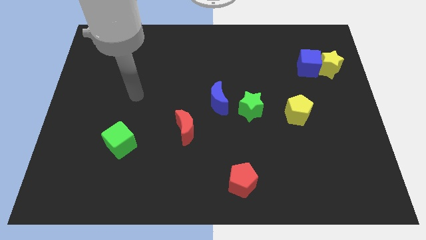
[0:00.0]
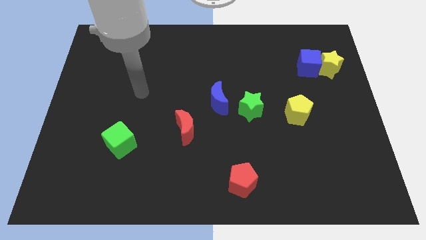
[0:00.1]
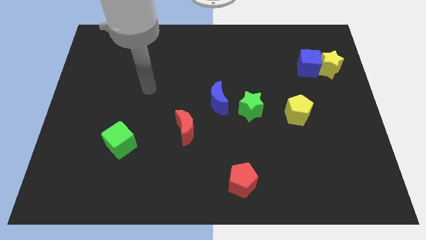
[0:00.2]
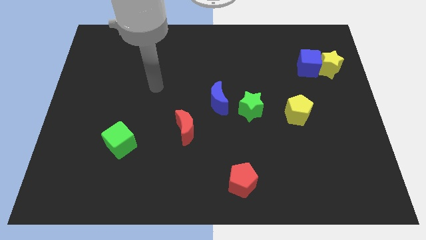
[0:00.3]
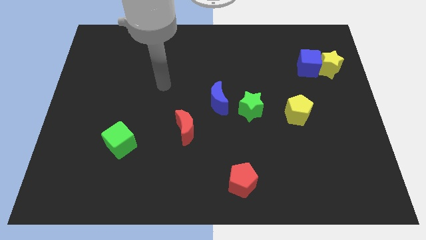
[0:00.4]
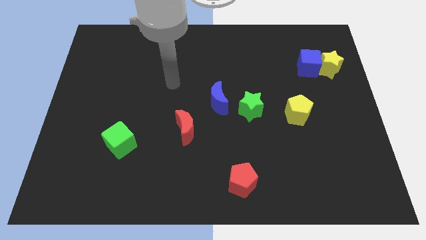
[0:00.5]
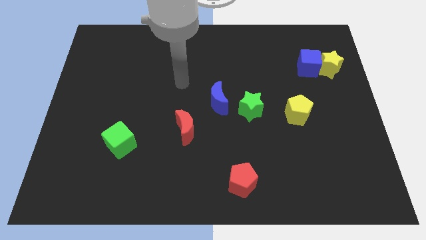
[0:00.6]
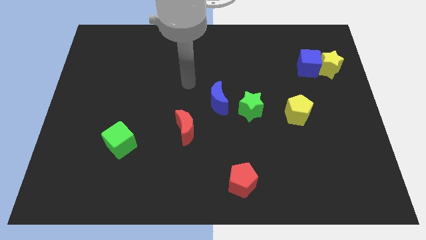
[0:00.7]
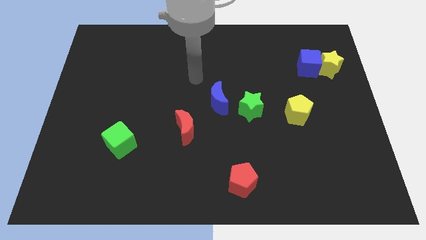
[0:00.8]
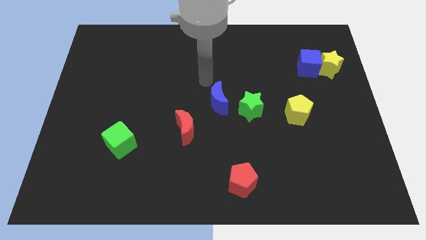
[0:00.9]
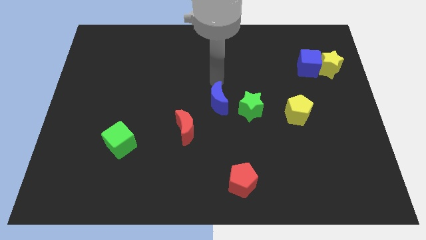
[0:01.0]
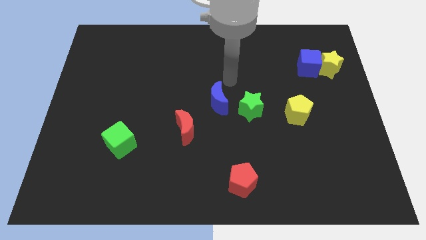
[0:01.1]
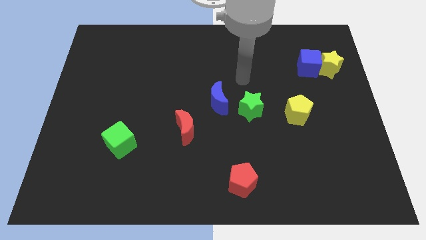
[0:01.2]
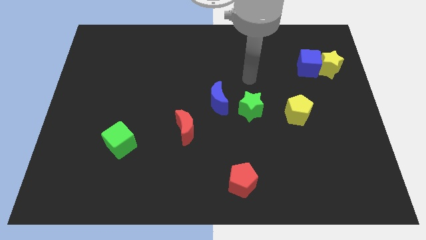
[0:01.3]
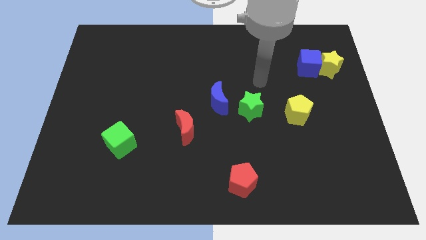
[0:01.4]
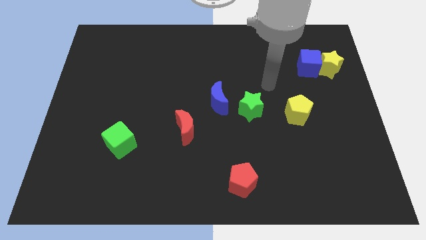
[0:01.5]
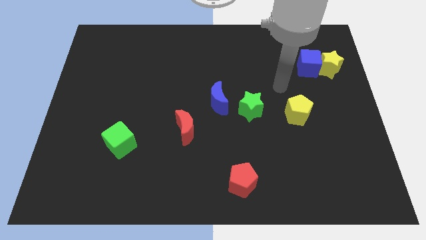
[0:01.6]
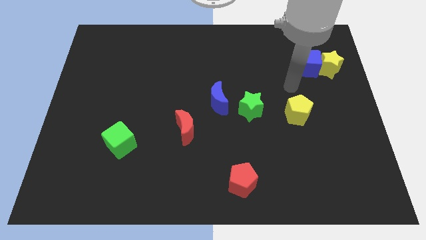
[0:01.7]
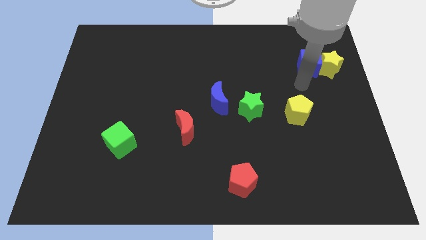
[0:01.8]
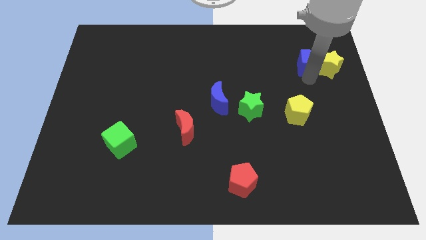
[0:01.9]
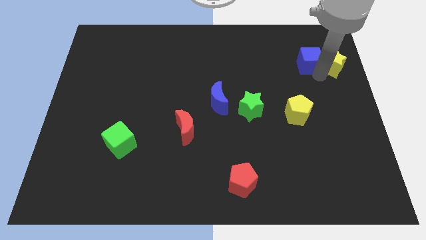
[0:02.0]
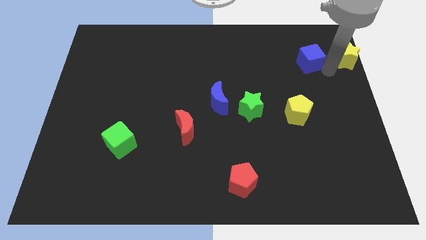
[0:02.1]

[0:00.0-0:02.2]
pull the blue cube apart from the yellow star

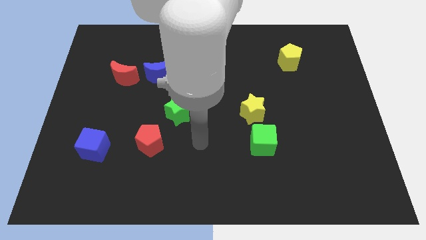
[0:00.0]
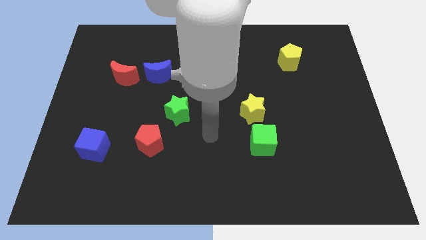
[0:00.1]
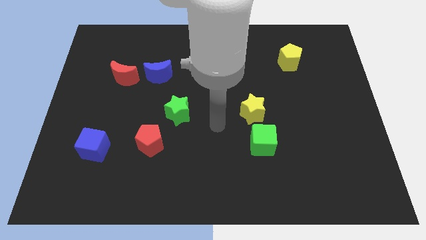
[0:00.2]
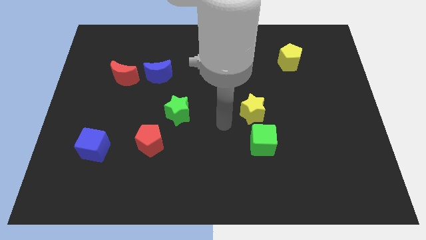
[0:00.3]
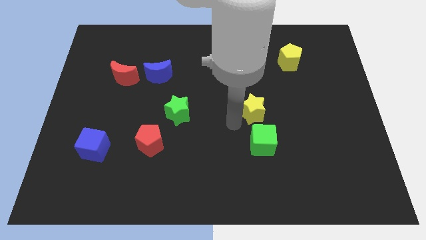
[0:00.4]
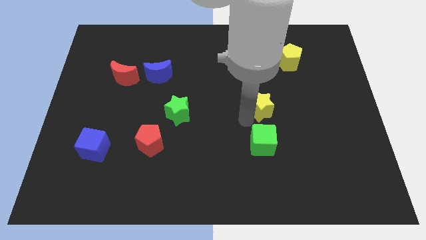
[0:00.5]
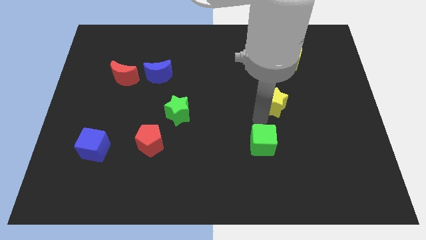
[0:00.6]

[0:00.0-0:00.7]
move the green cube away from the yellow star

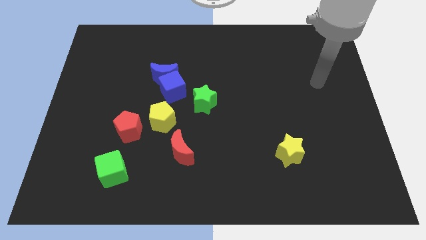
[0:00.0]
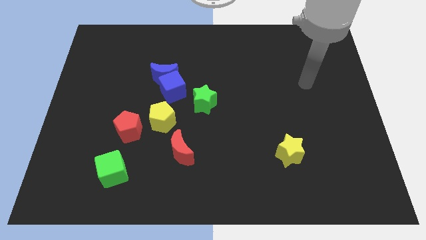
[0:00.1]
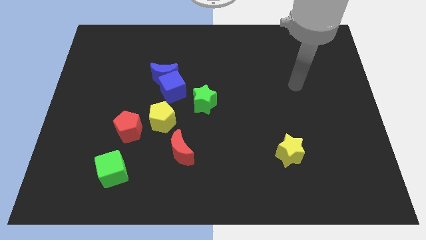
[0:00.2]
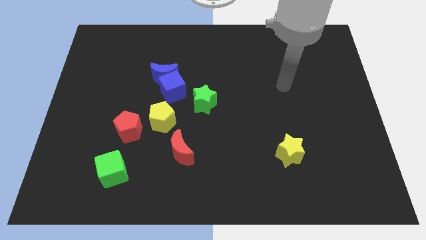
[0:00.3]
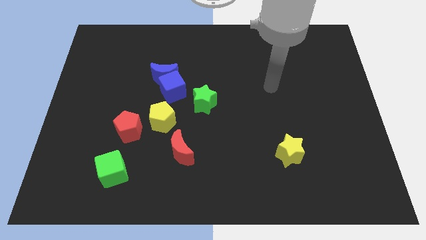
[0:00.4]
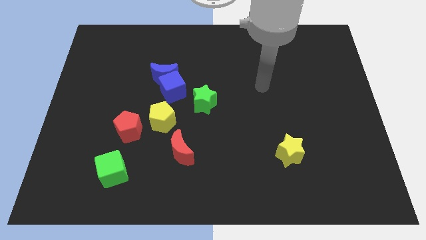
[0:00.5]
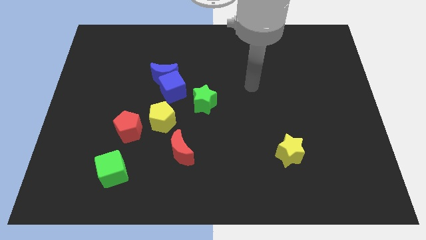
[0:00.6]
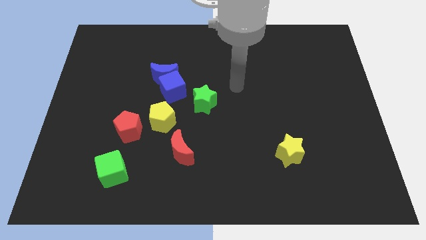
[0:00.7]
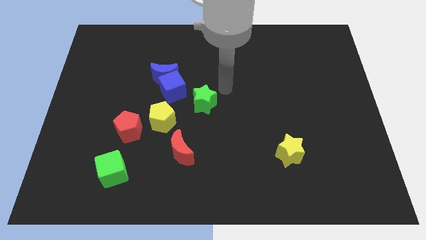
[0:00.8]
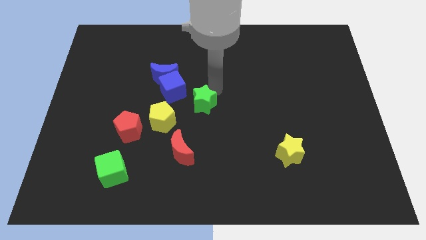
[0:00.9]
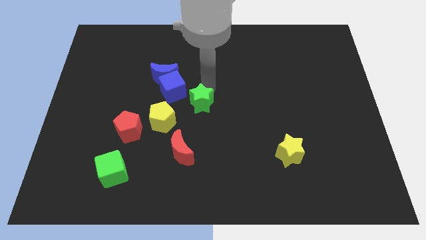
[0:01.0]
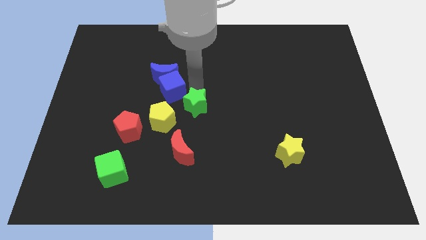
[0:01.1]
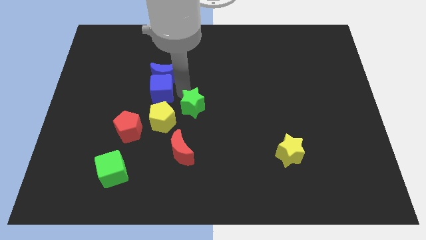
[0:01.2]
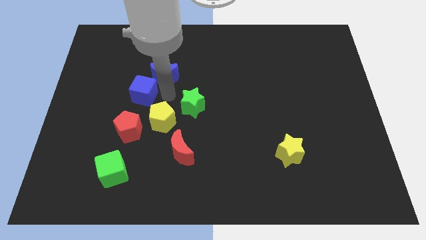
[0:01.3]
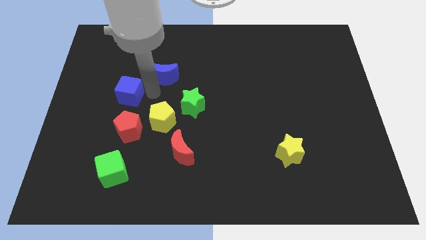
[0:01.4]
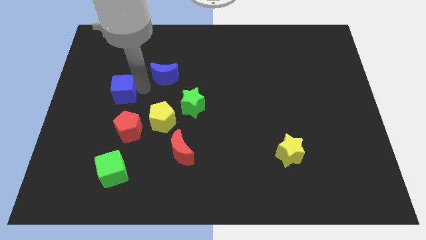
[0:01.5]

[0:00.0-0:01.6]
pull the blue moon apart from the blue cube

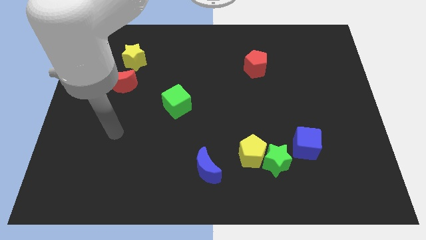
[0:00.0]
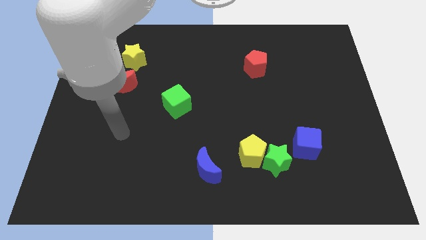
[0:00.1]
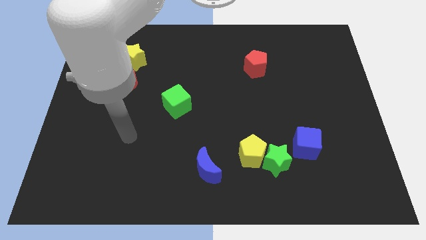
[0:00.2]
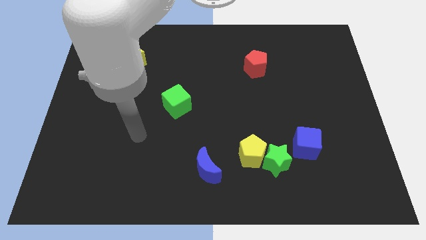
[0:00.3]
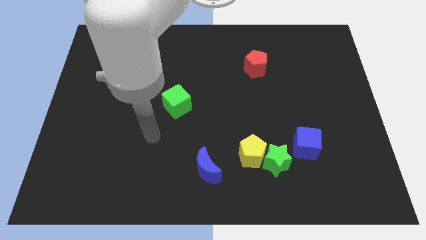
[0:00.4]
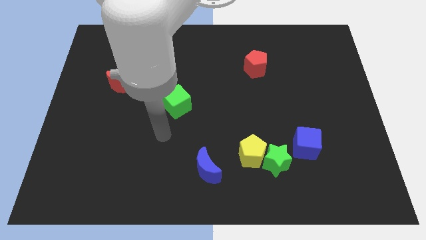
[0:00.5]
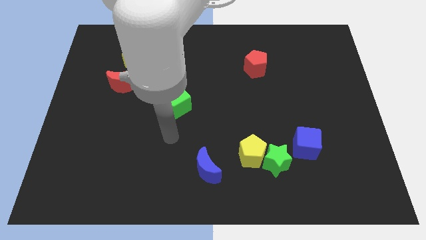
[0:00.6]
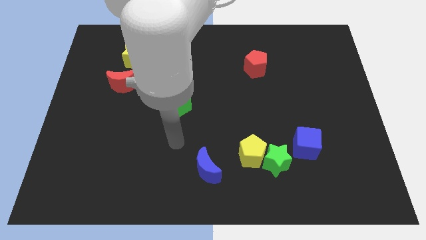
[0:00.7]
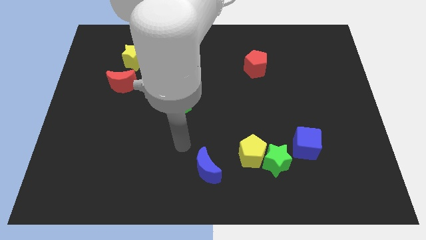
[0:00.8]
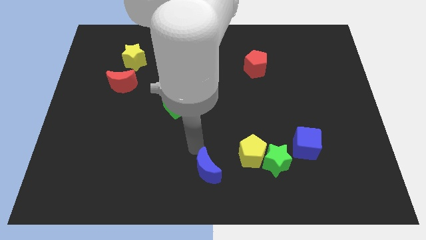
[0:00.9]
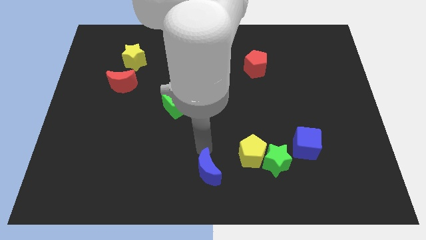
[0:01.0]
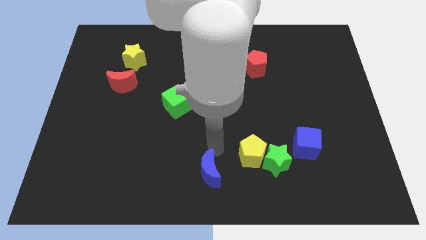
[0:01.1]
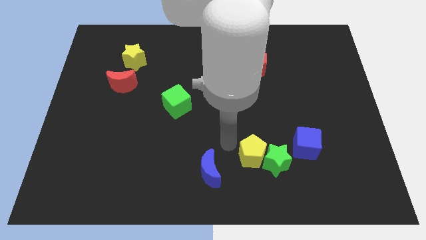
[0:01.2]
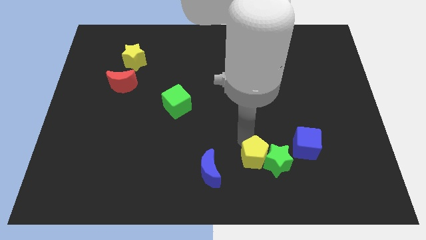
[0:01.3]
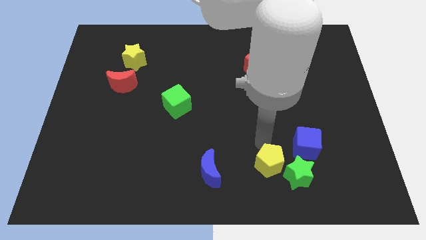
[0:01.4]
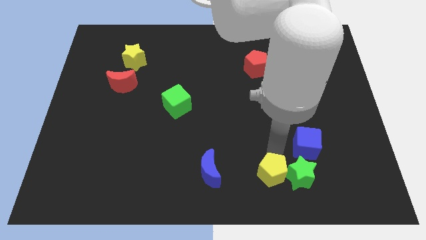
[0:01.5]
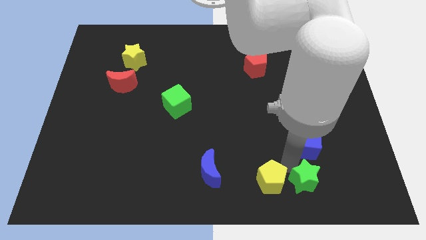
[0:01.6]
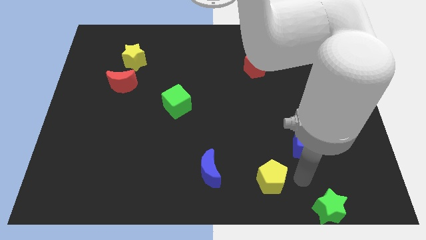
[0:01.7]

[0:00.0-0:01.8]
move the yellow pentagon away from the green star

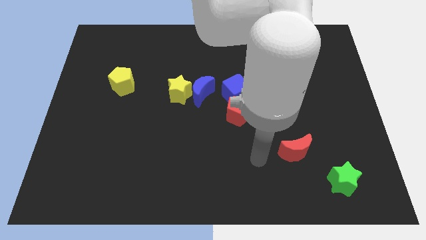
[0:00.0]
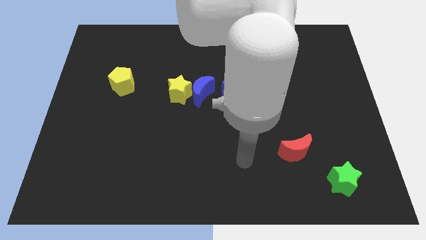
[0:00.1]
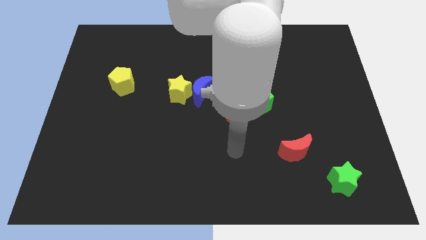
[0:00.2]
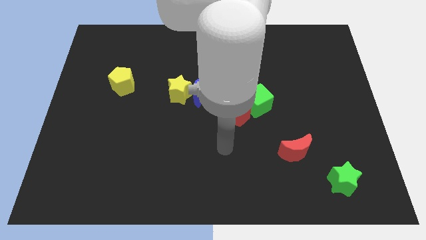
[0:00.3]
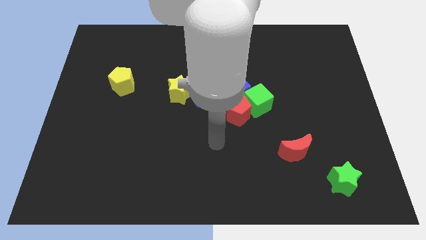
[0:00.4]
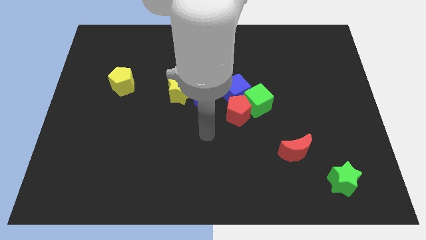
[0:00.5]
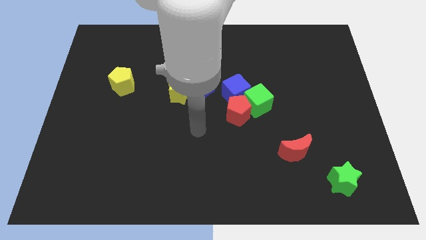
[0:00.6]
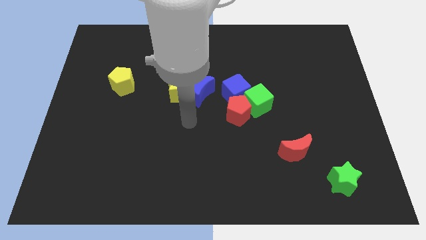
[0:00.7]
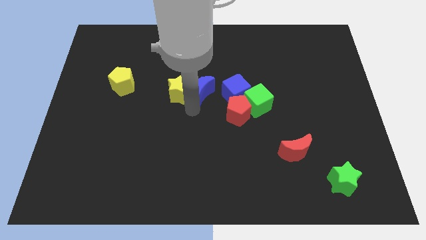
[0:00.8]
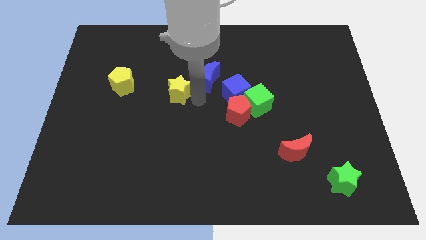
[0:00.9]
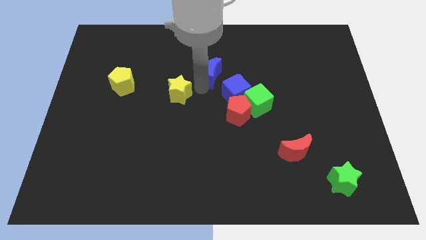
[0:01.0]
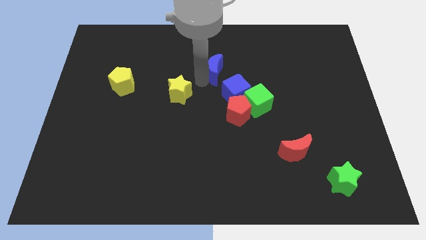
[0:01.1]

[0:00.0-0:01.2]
move the yellow star away from the blue moon

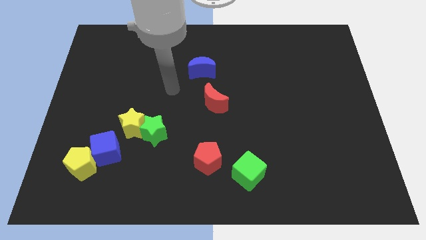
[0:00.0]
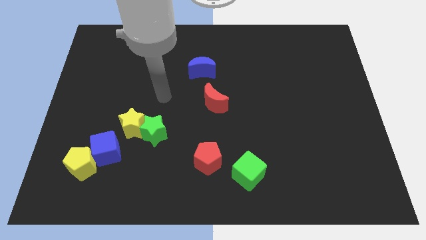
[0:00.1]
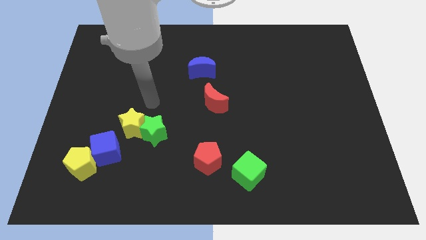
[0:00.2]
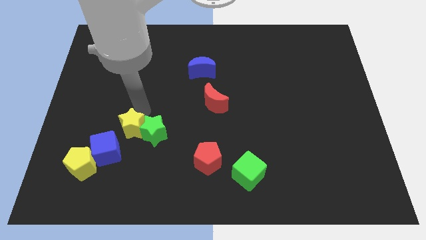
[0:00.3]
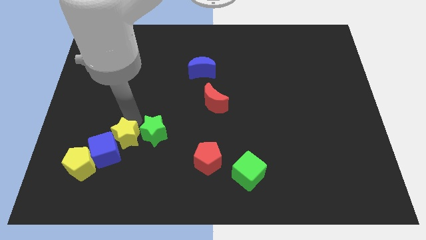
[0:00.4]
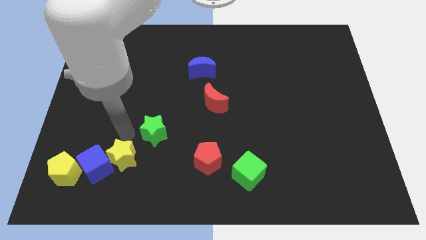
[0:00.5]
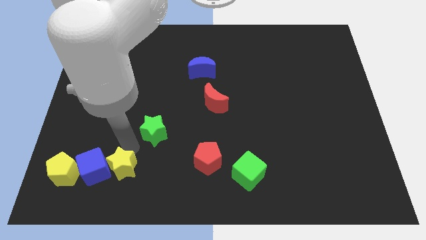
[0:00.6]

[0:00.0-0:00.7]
move the green star away from the yellow star

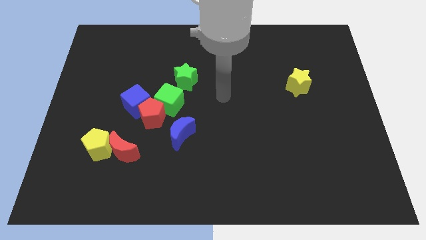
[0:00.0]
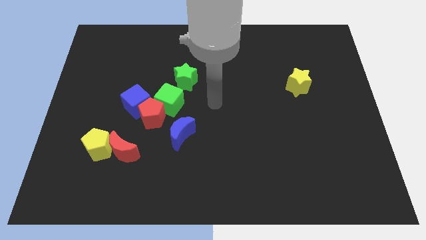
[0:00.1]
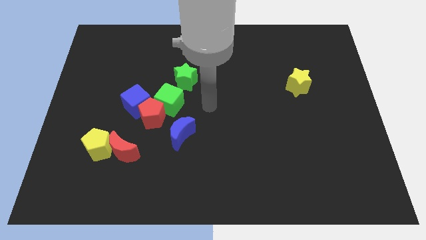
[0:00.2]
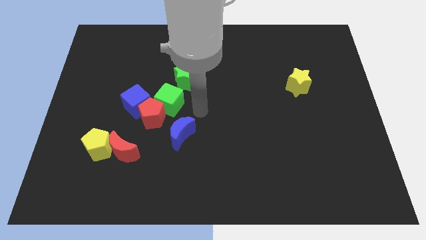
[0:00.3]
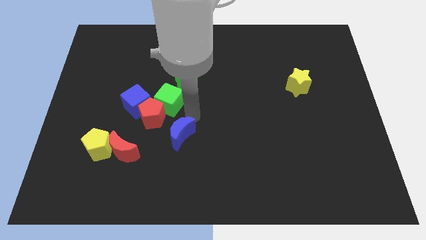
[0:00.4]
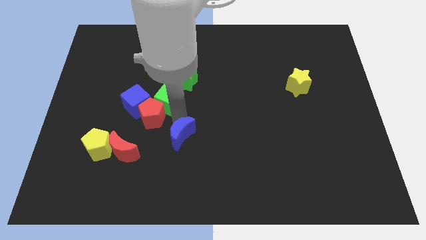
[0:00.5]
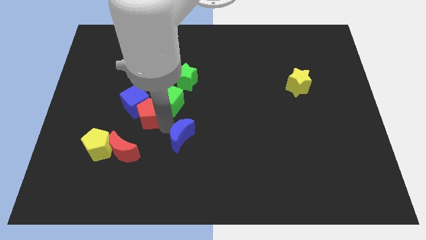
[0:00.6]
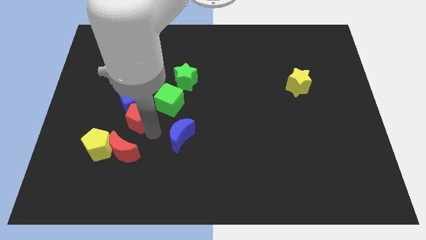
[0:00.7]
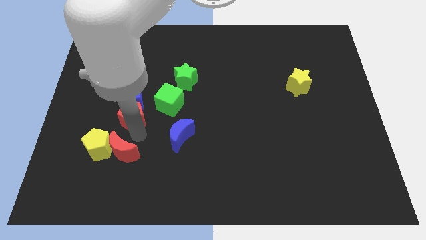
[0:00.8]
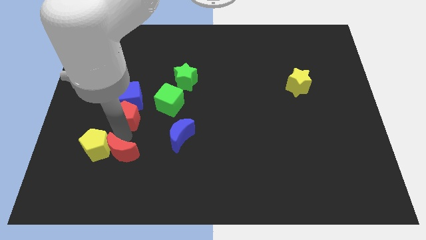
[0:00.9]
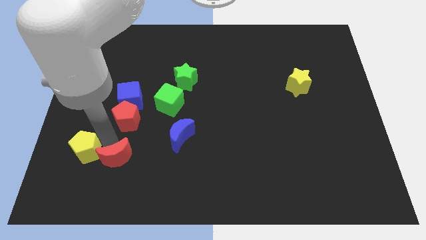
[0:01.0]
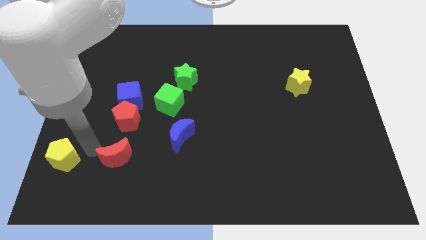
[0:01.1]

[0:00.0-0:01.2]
separate the red moon from the yellow pentagon
